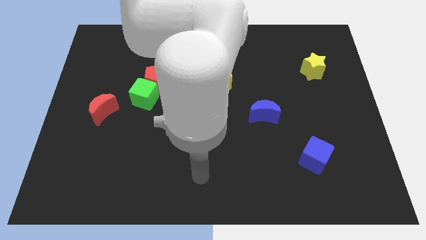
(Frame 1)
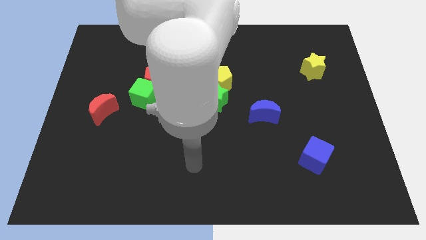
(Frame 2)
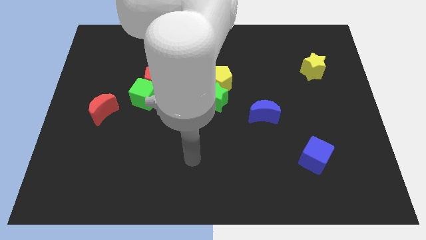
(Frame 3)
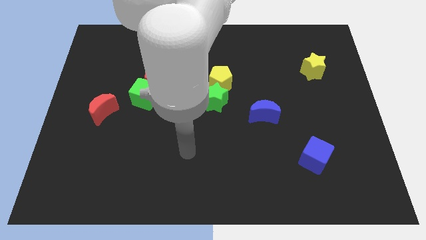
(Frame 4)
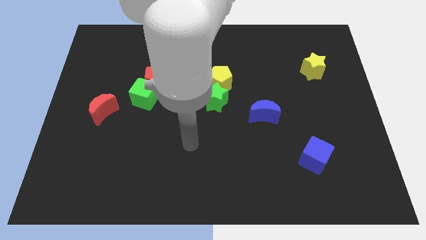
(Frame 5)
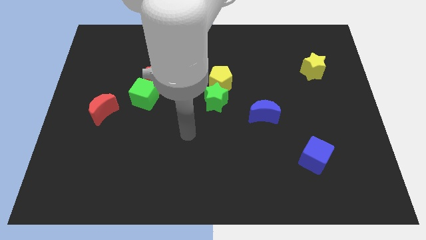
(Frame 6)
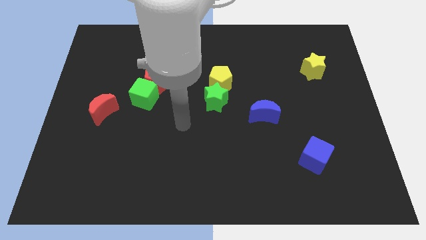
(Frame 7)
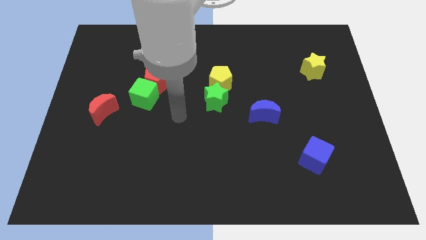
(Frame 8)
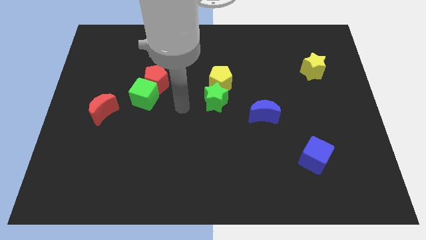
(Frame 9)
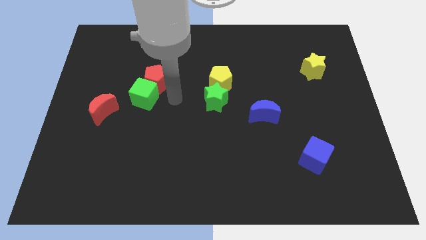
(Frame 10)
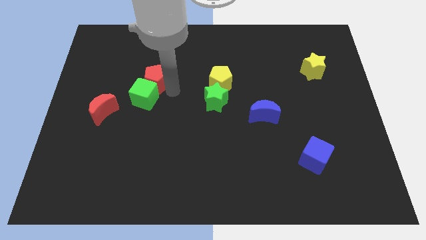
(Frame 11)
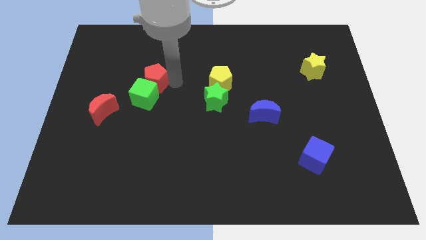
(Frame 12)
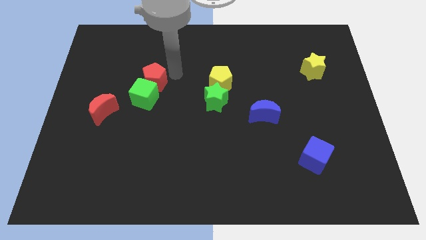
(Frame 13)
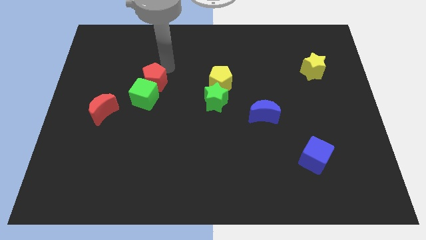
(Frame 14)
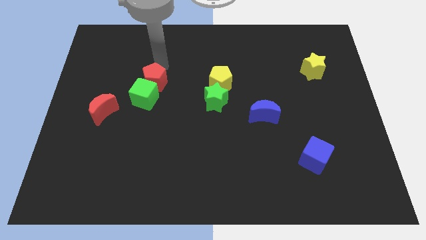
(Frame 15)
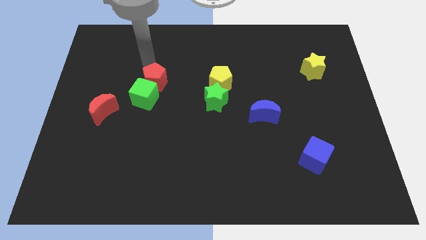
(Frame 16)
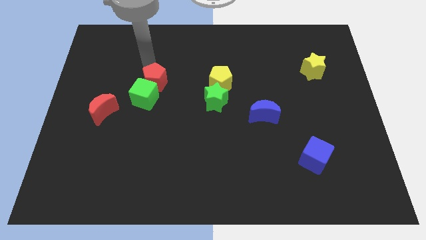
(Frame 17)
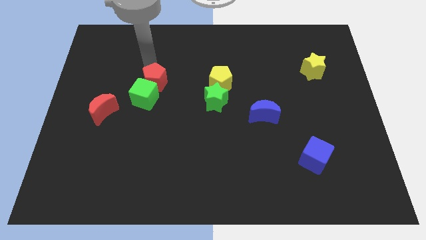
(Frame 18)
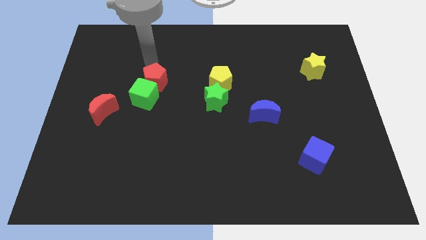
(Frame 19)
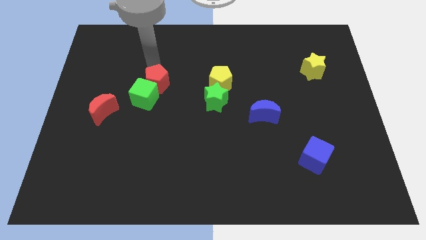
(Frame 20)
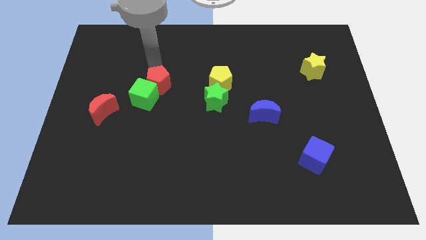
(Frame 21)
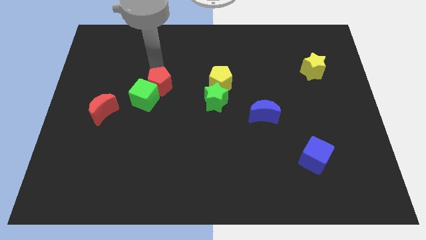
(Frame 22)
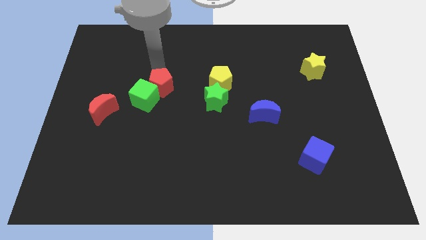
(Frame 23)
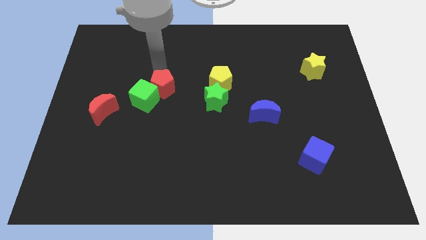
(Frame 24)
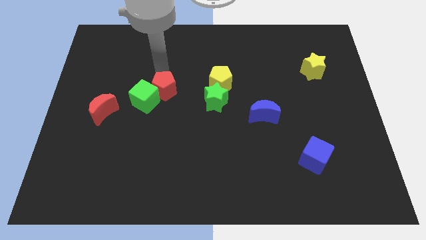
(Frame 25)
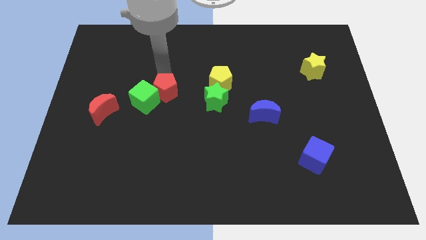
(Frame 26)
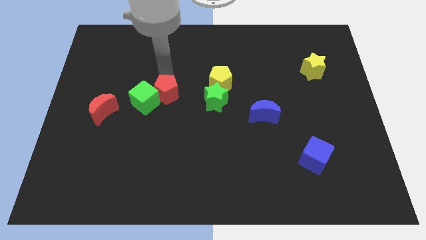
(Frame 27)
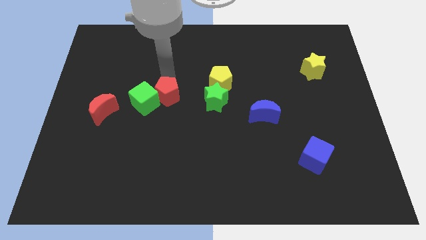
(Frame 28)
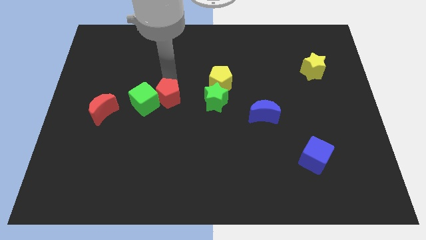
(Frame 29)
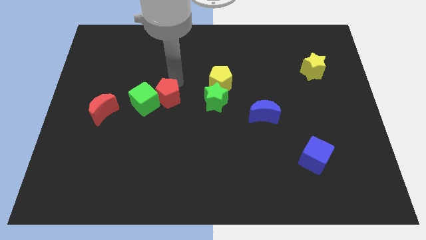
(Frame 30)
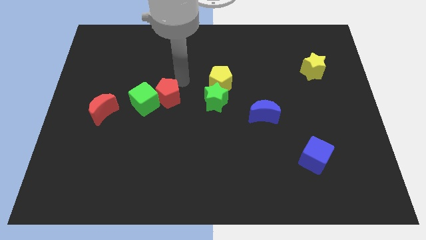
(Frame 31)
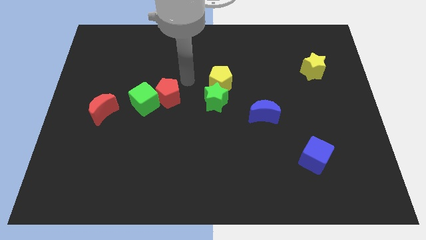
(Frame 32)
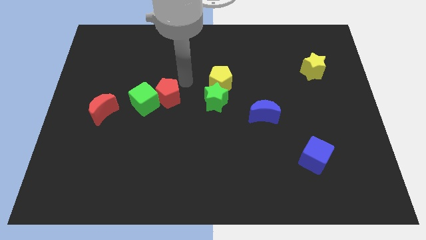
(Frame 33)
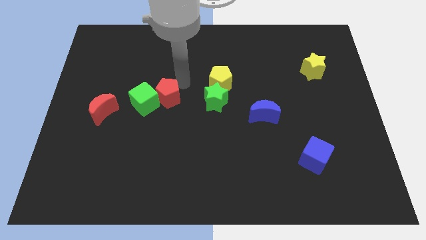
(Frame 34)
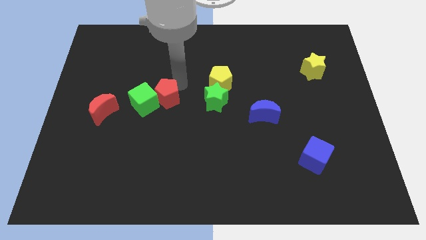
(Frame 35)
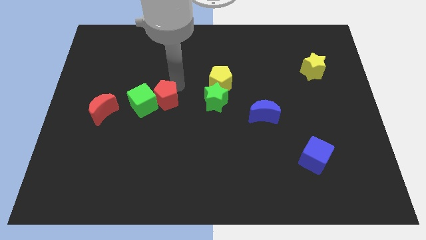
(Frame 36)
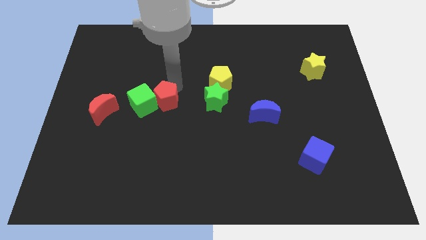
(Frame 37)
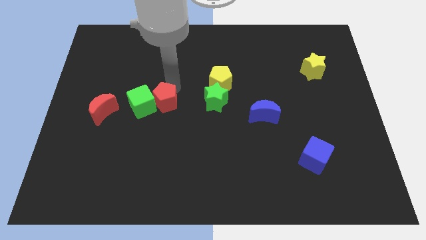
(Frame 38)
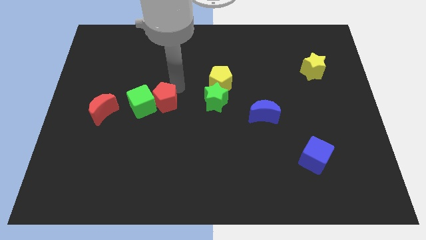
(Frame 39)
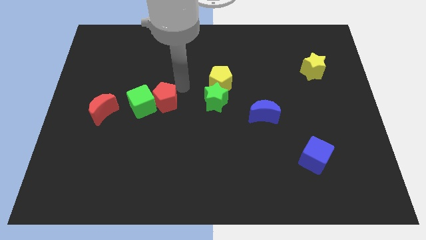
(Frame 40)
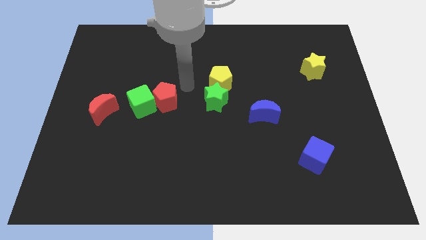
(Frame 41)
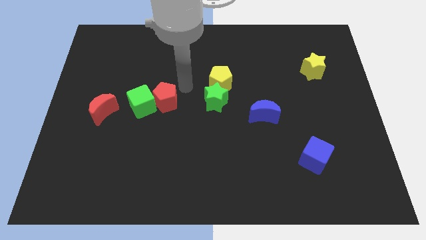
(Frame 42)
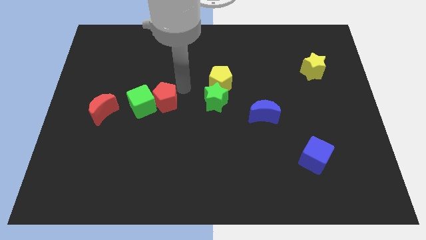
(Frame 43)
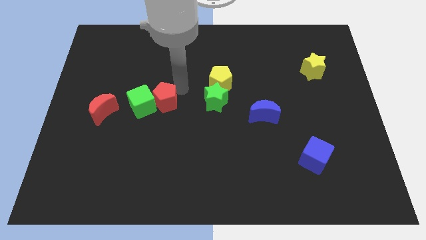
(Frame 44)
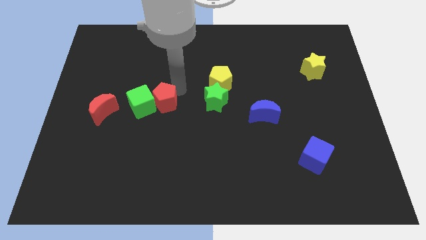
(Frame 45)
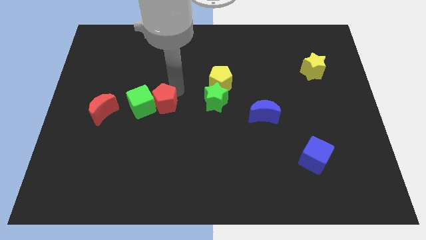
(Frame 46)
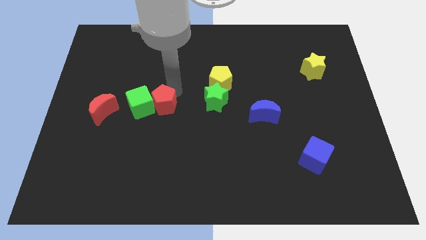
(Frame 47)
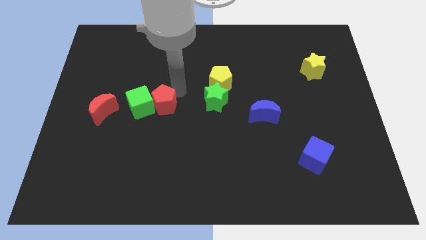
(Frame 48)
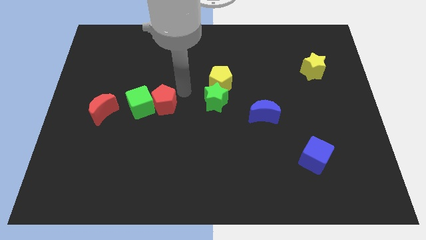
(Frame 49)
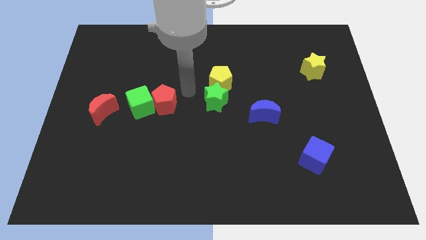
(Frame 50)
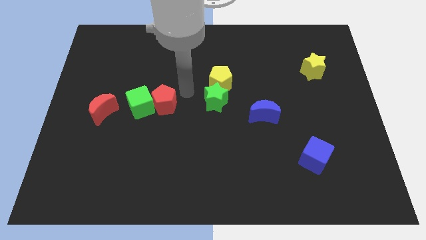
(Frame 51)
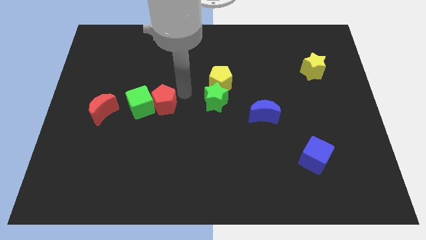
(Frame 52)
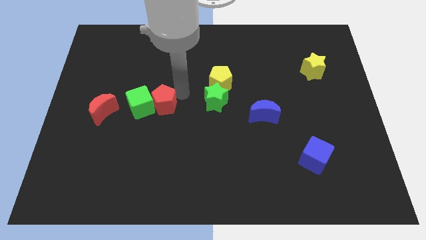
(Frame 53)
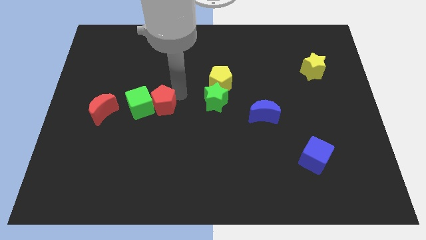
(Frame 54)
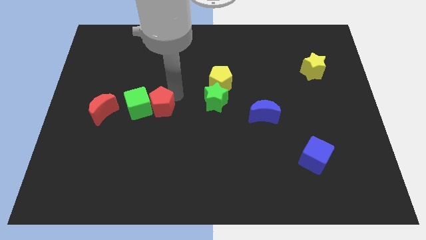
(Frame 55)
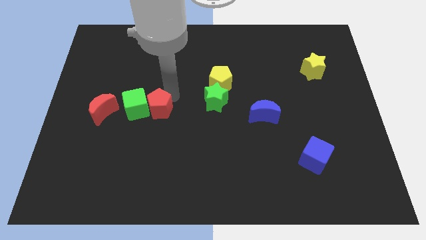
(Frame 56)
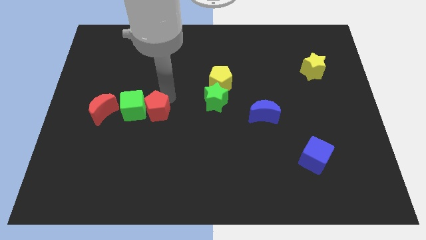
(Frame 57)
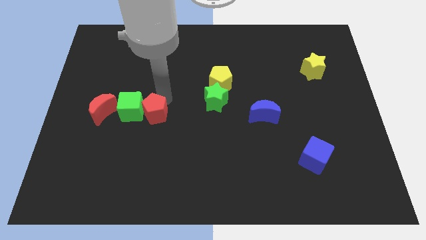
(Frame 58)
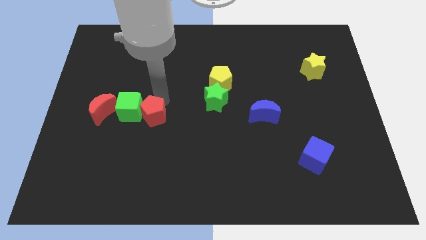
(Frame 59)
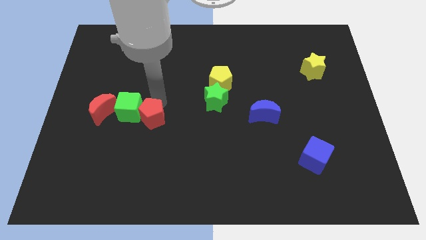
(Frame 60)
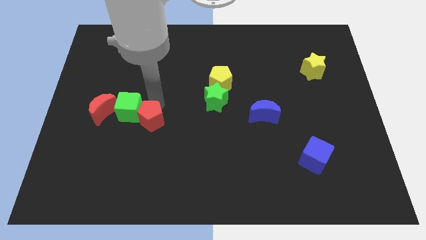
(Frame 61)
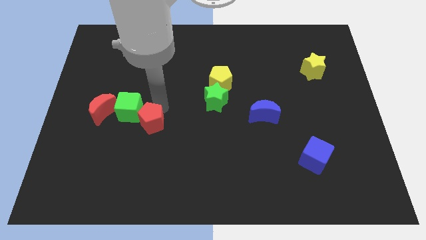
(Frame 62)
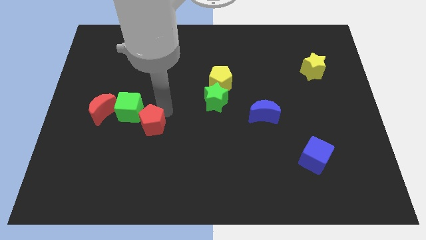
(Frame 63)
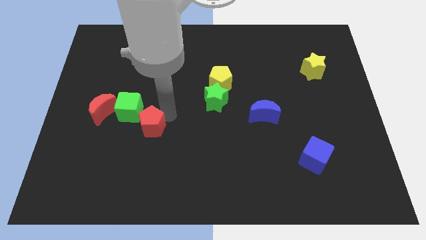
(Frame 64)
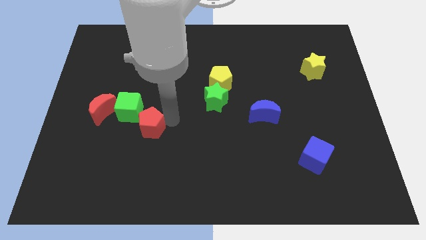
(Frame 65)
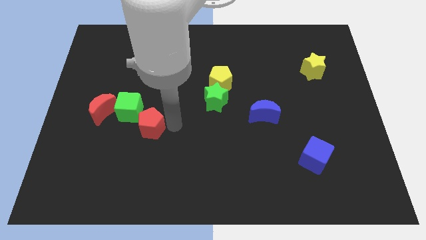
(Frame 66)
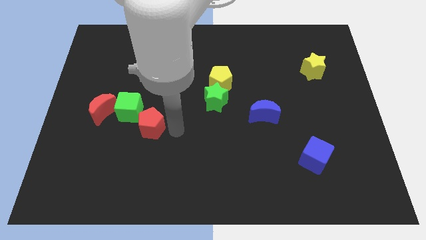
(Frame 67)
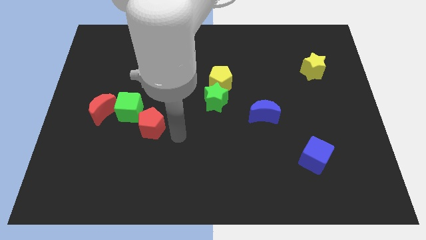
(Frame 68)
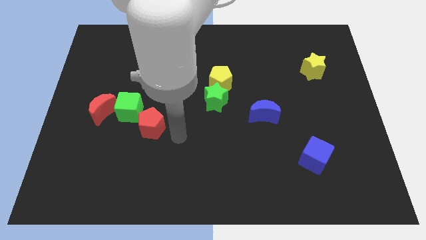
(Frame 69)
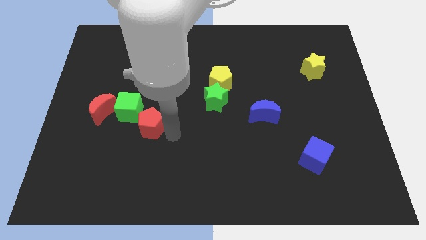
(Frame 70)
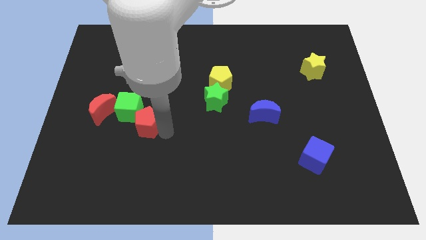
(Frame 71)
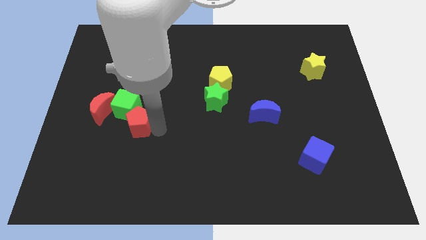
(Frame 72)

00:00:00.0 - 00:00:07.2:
slide the red pentagon a little bit downwards and to the left

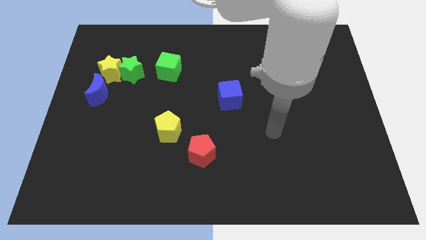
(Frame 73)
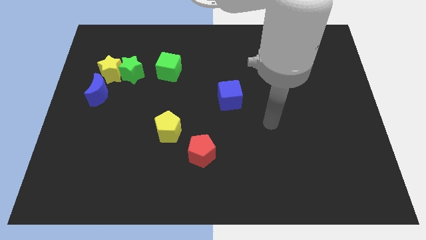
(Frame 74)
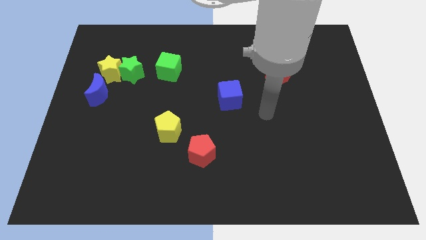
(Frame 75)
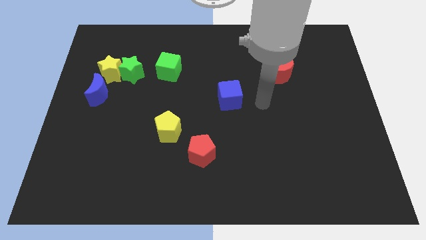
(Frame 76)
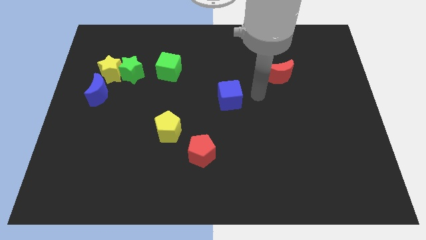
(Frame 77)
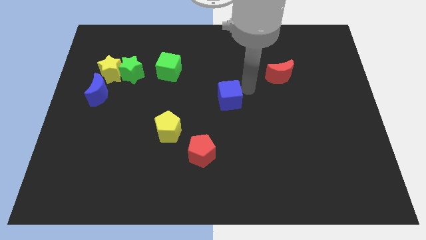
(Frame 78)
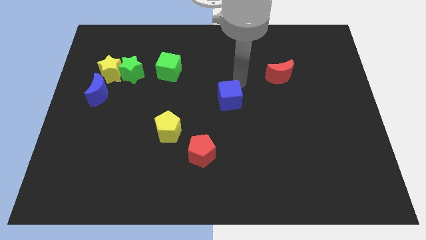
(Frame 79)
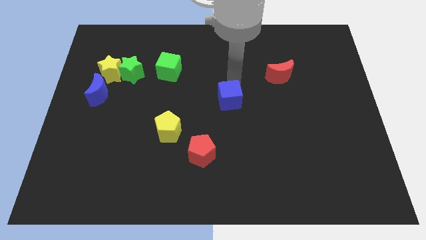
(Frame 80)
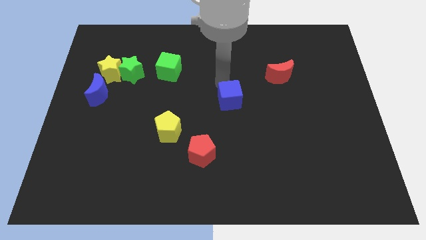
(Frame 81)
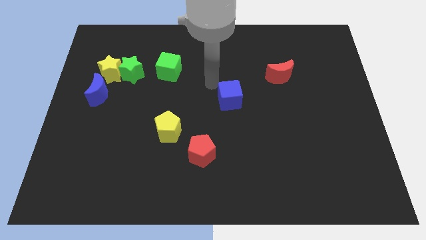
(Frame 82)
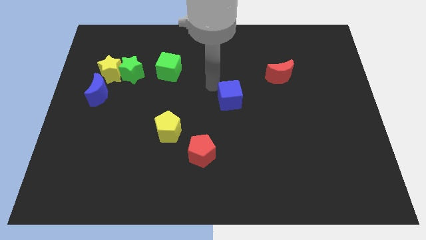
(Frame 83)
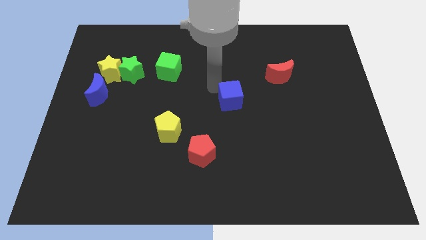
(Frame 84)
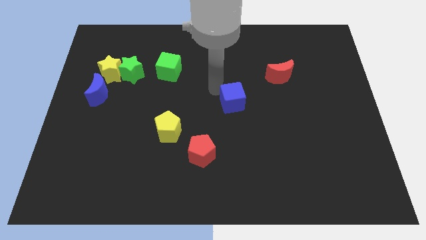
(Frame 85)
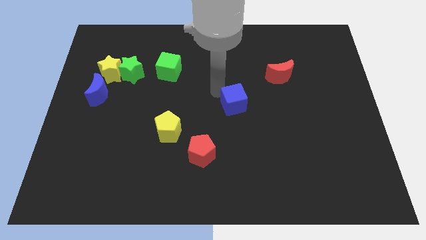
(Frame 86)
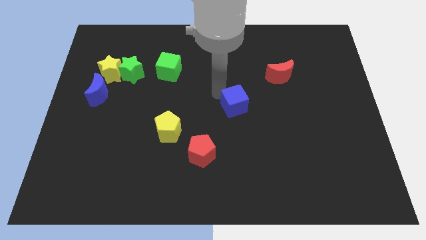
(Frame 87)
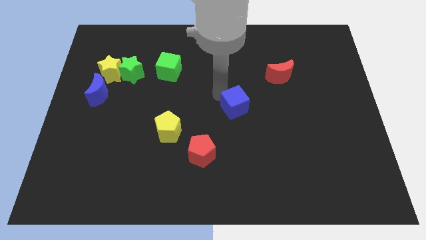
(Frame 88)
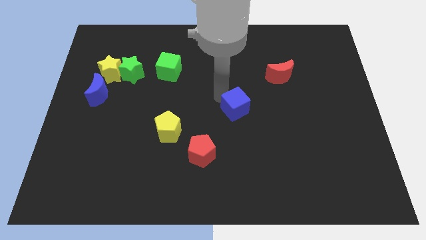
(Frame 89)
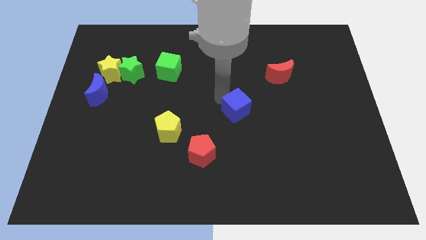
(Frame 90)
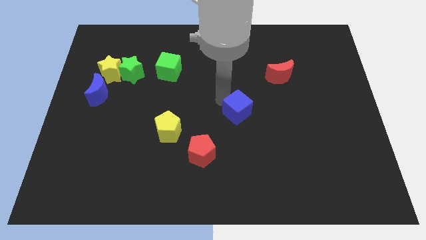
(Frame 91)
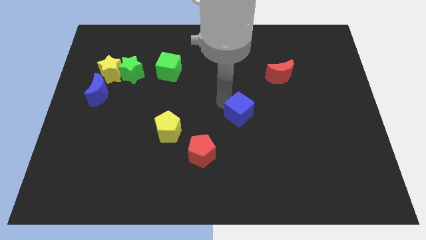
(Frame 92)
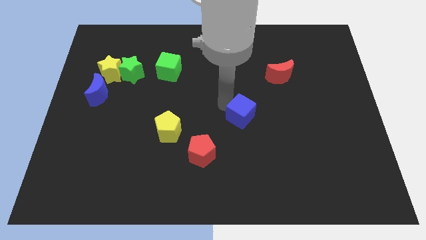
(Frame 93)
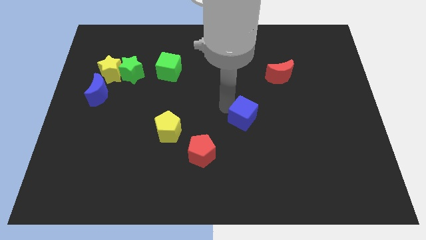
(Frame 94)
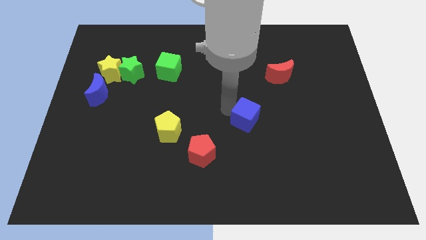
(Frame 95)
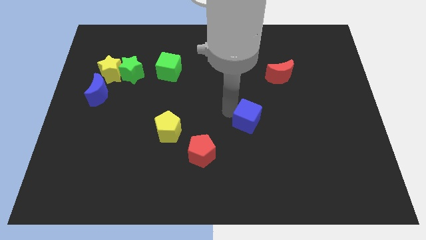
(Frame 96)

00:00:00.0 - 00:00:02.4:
slide the blue cube down and then right a little
